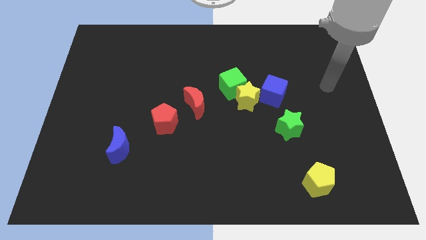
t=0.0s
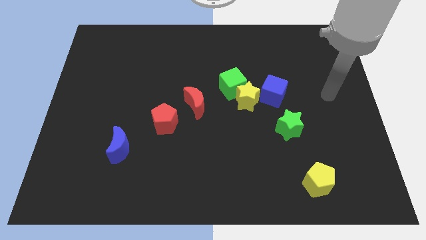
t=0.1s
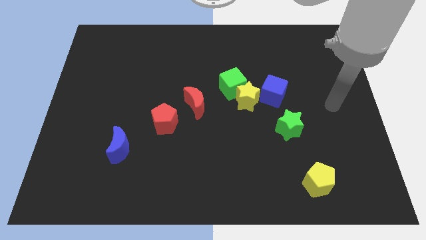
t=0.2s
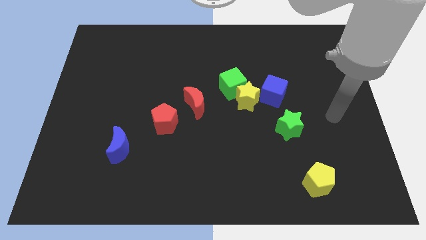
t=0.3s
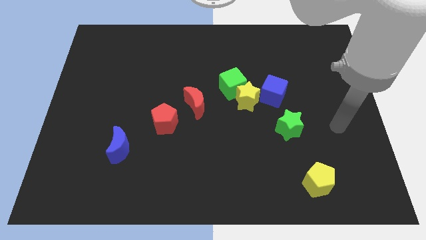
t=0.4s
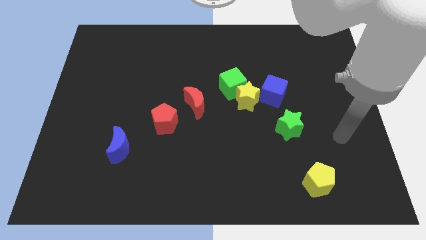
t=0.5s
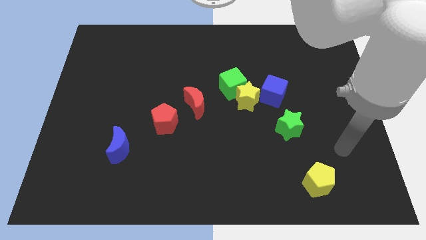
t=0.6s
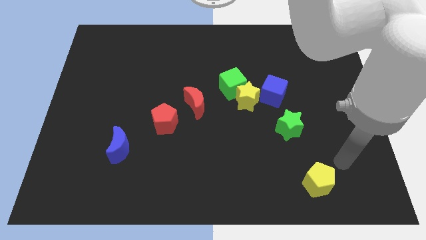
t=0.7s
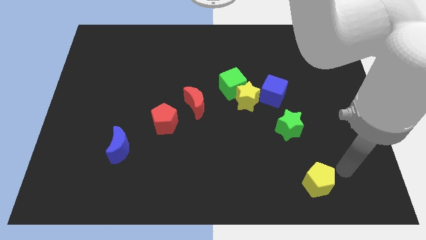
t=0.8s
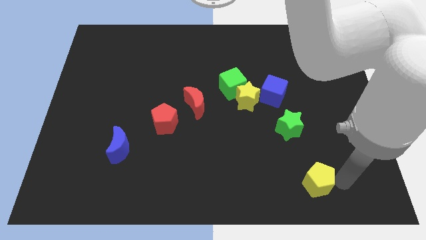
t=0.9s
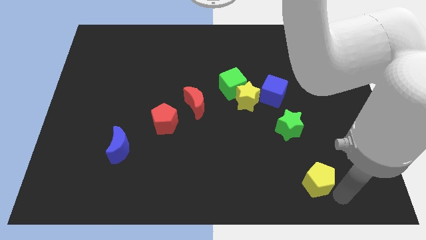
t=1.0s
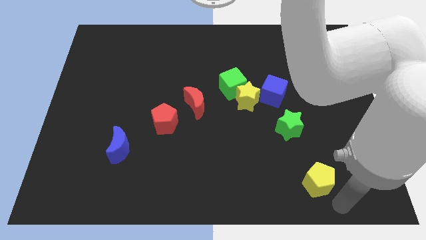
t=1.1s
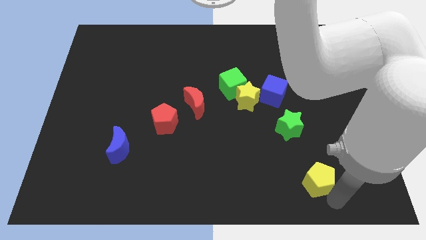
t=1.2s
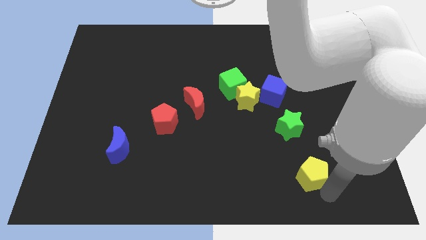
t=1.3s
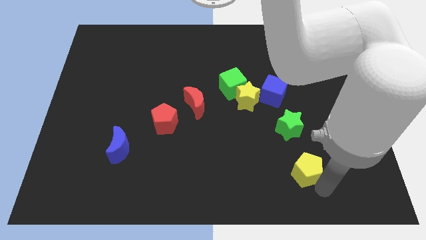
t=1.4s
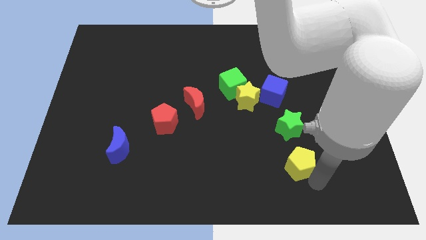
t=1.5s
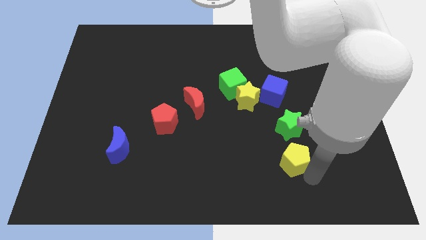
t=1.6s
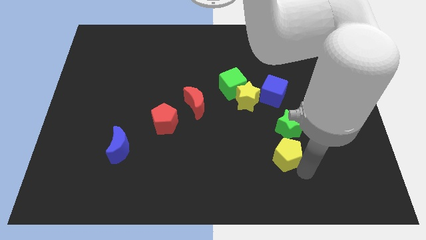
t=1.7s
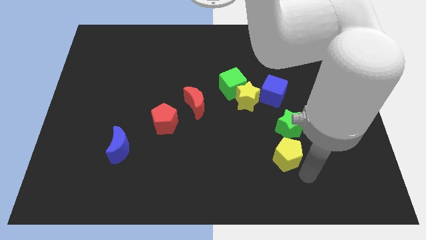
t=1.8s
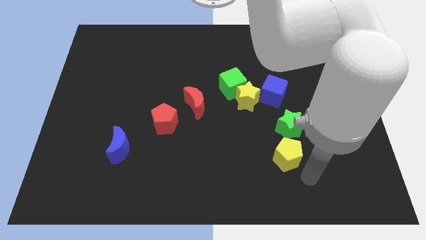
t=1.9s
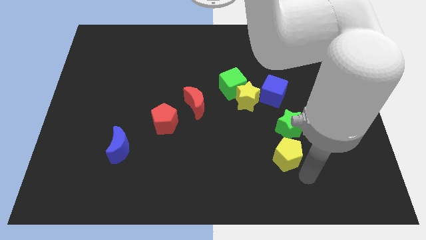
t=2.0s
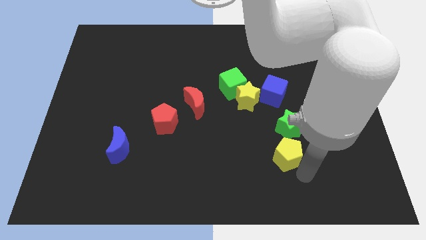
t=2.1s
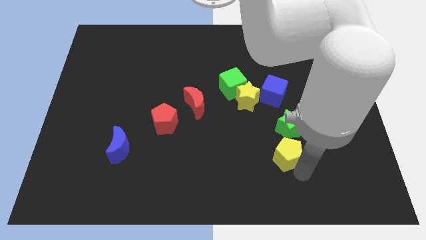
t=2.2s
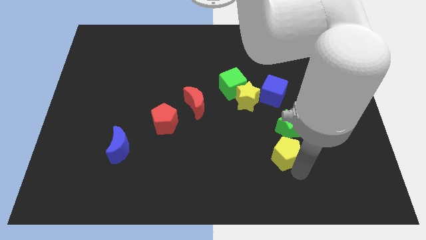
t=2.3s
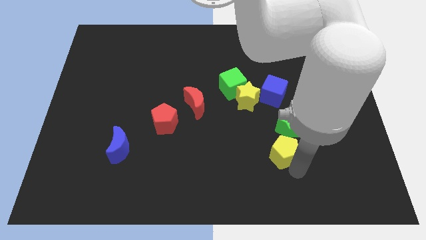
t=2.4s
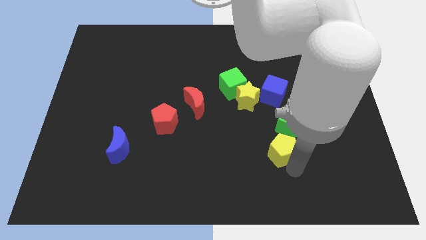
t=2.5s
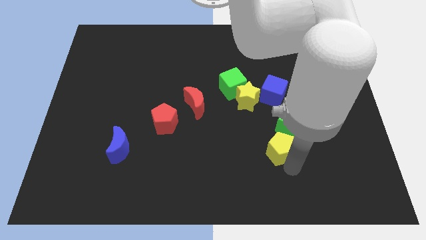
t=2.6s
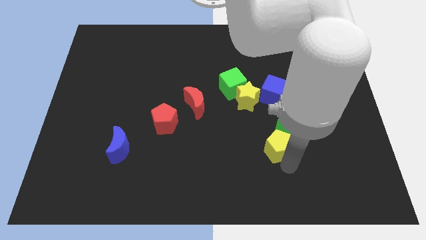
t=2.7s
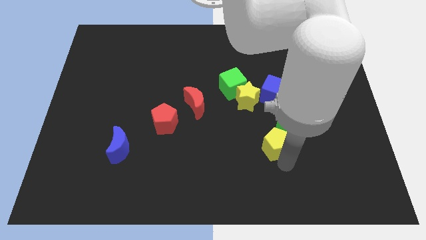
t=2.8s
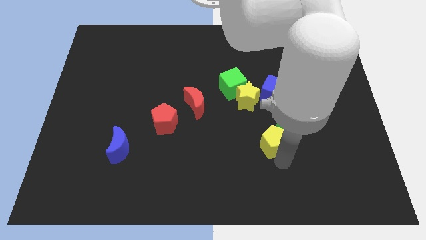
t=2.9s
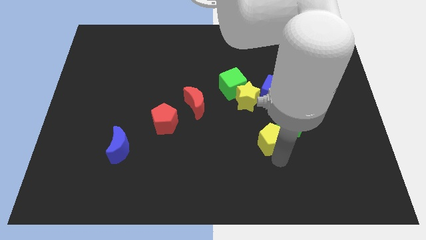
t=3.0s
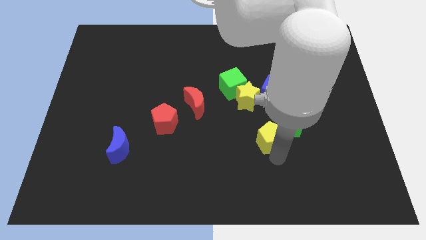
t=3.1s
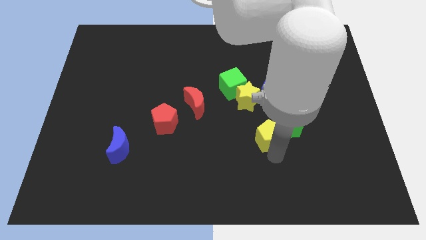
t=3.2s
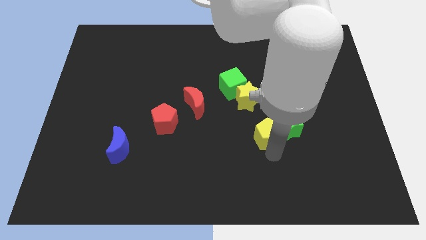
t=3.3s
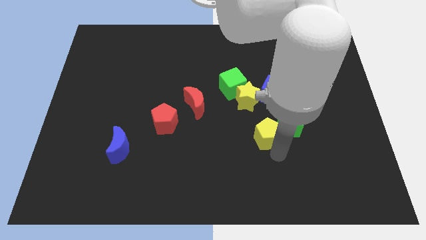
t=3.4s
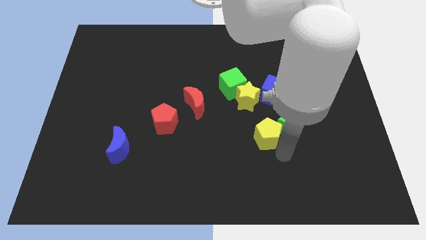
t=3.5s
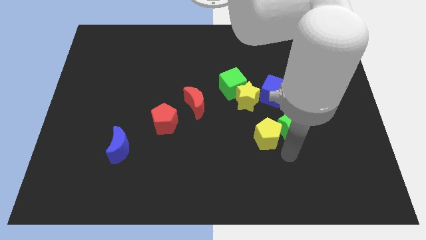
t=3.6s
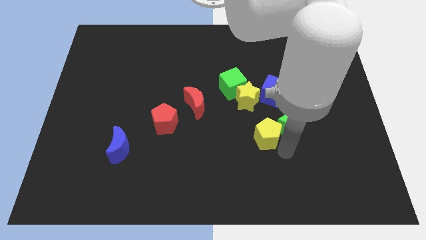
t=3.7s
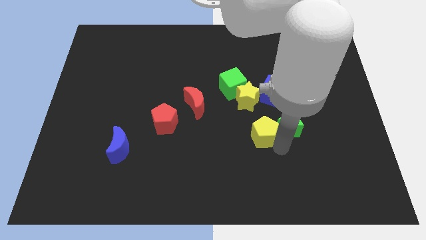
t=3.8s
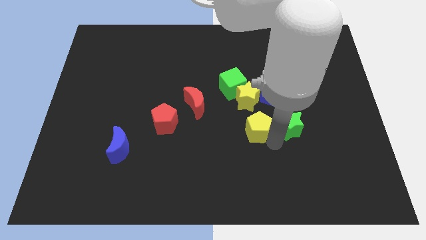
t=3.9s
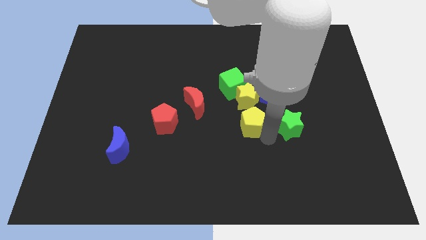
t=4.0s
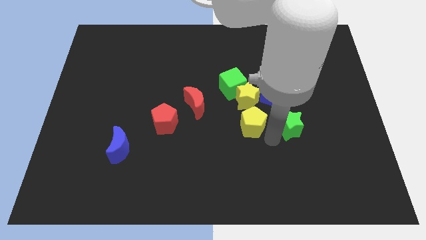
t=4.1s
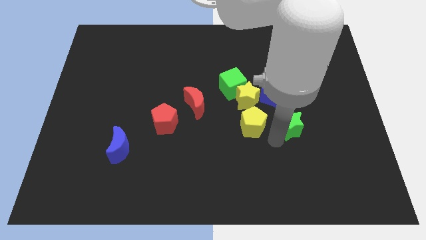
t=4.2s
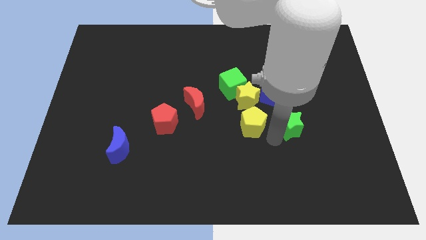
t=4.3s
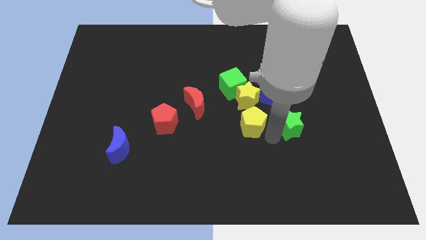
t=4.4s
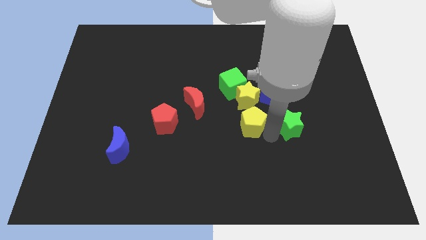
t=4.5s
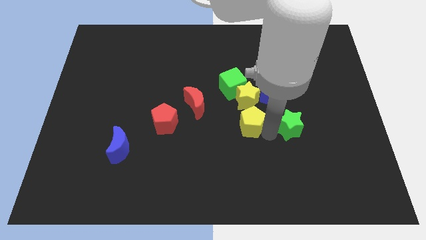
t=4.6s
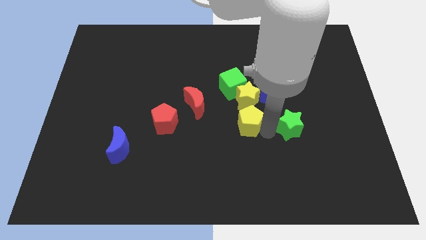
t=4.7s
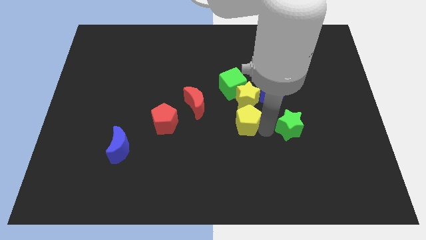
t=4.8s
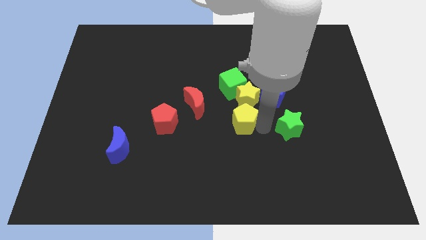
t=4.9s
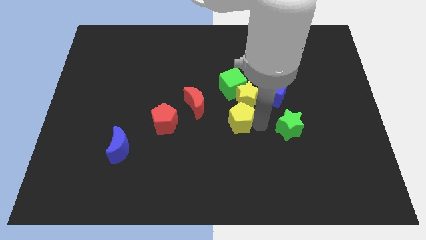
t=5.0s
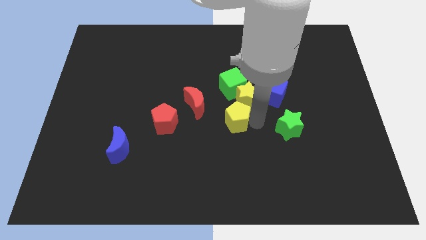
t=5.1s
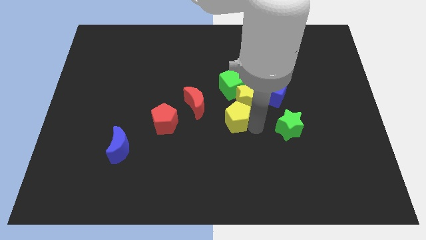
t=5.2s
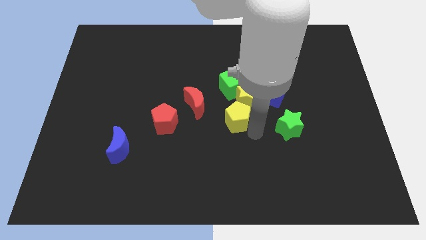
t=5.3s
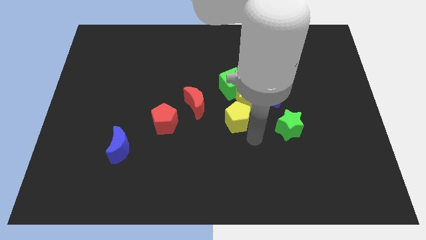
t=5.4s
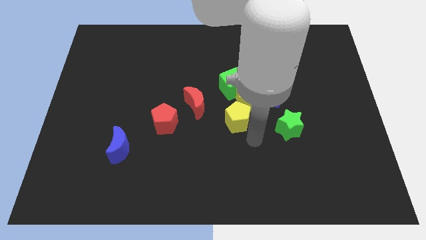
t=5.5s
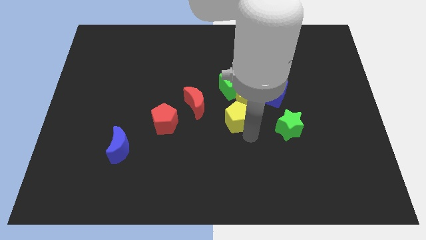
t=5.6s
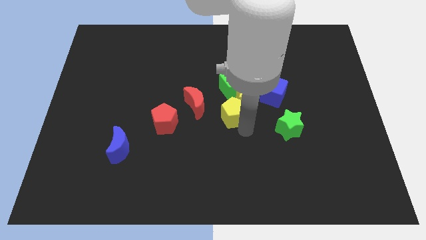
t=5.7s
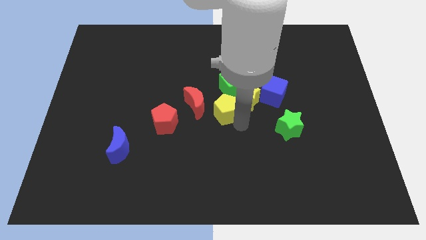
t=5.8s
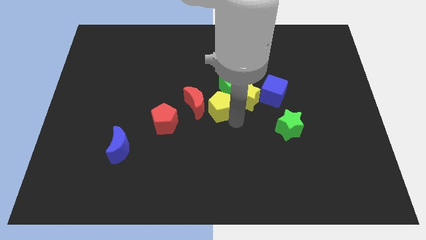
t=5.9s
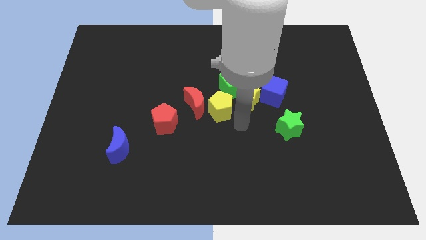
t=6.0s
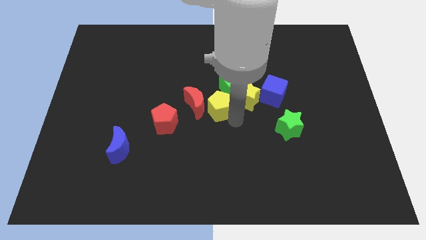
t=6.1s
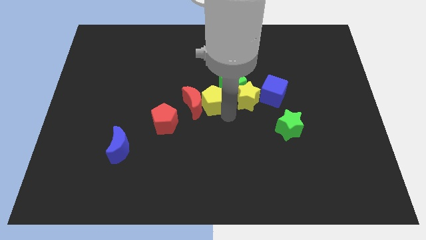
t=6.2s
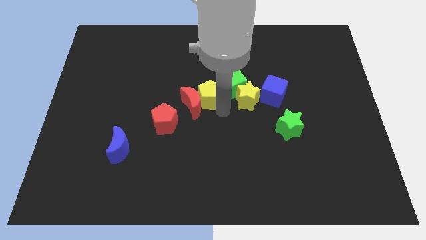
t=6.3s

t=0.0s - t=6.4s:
put the yellow pentagon to the left side of the green cube
